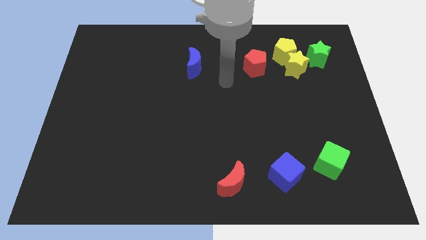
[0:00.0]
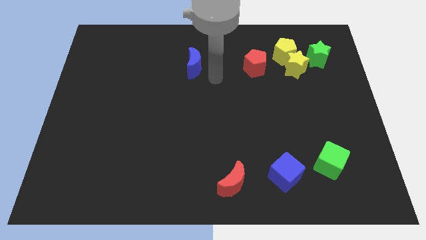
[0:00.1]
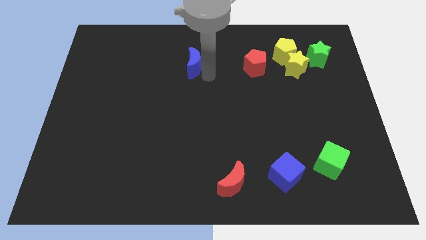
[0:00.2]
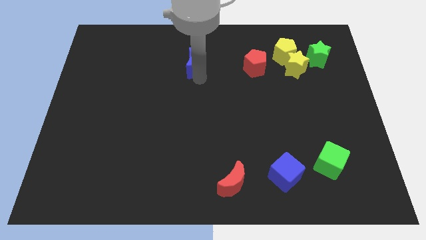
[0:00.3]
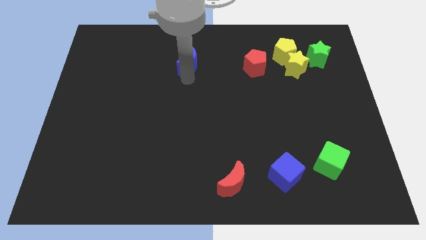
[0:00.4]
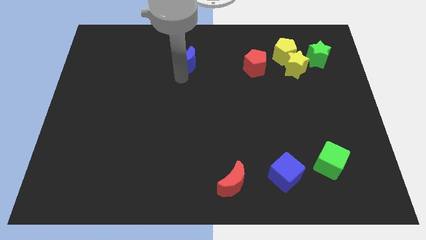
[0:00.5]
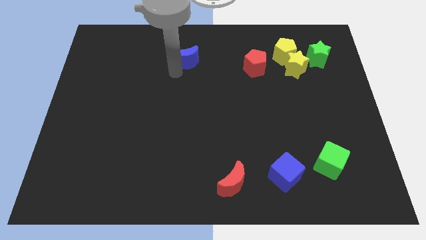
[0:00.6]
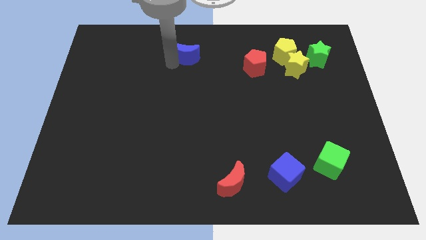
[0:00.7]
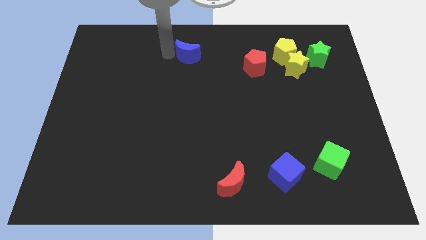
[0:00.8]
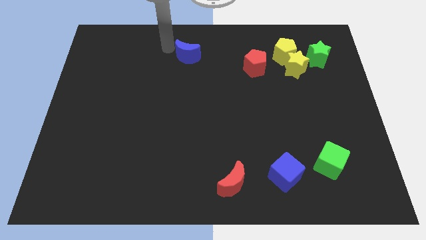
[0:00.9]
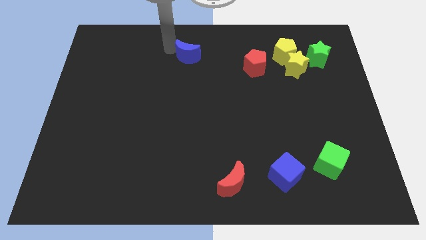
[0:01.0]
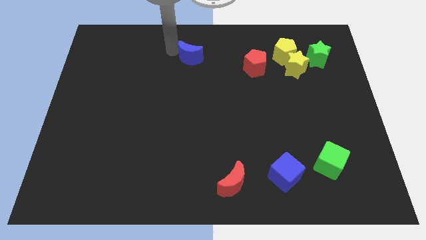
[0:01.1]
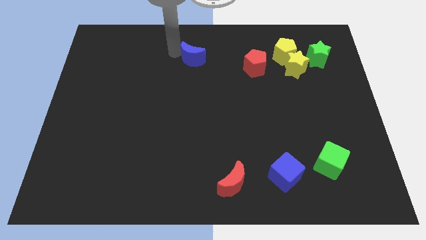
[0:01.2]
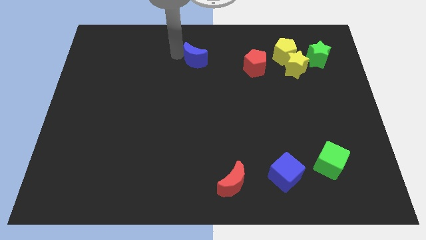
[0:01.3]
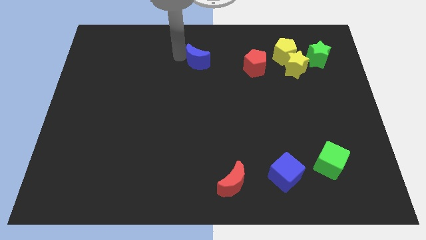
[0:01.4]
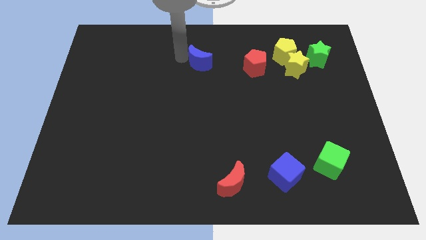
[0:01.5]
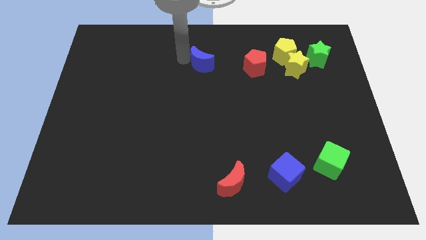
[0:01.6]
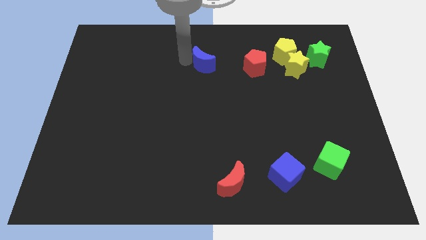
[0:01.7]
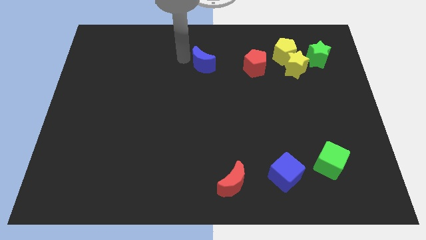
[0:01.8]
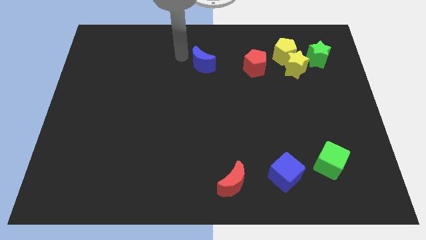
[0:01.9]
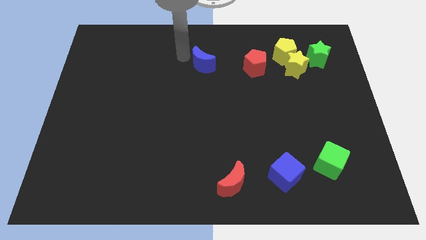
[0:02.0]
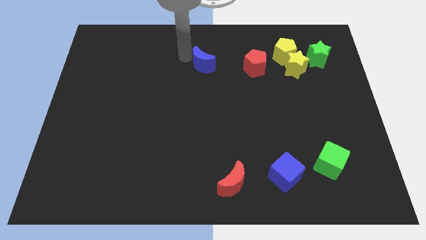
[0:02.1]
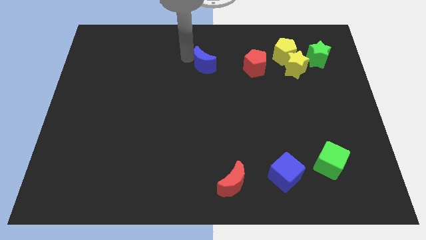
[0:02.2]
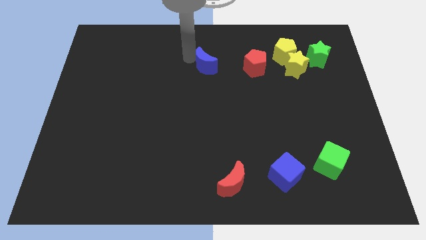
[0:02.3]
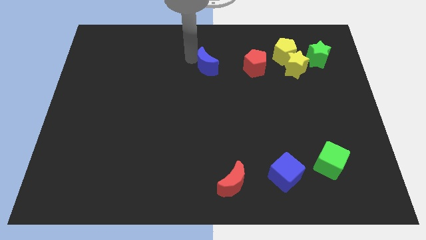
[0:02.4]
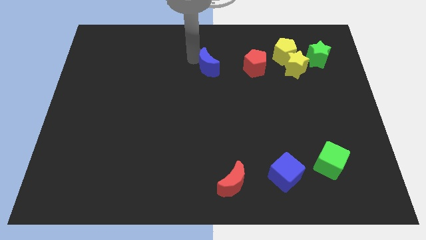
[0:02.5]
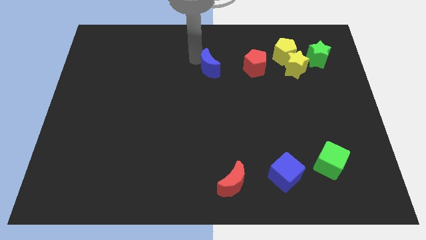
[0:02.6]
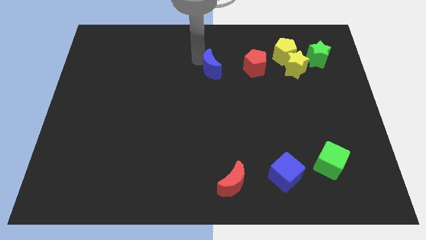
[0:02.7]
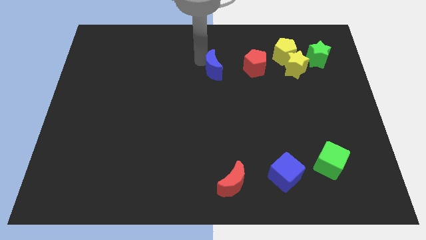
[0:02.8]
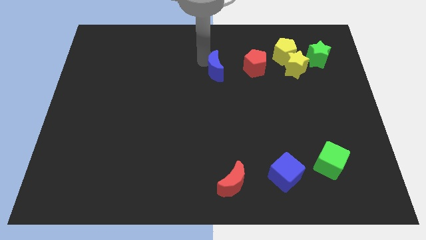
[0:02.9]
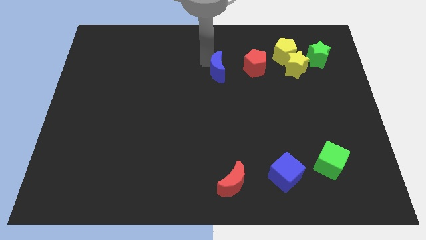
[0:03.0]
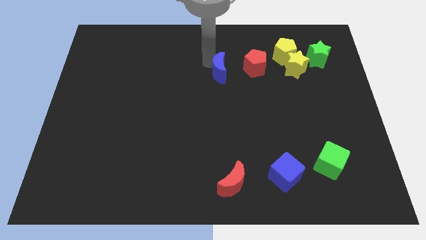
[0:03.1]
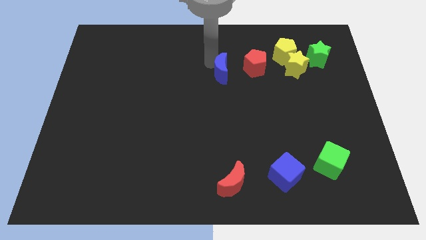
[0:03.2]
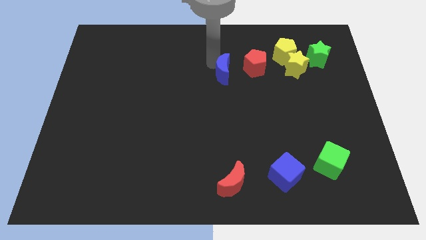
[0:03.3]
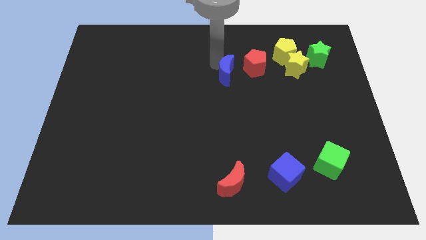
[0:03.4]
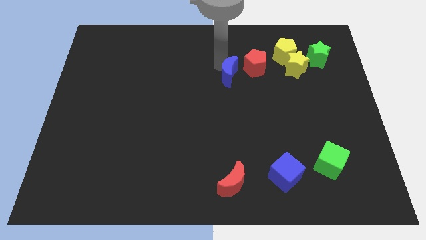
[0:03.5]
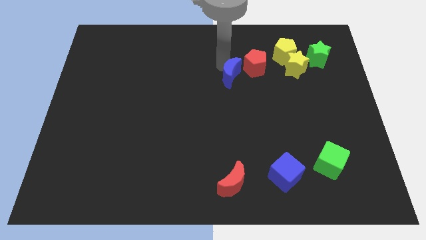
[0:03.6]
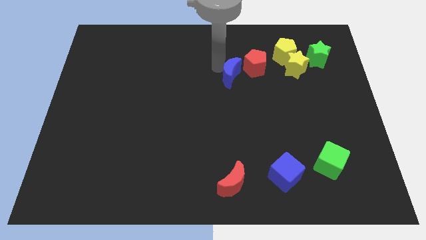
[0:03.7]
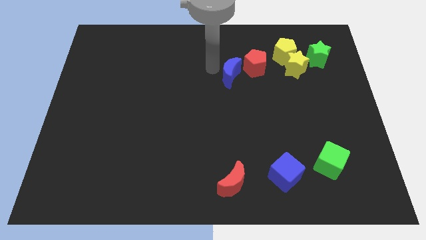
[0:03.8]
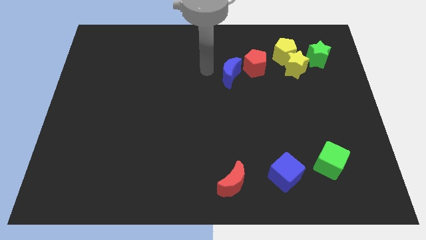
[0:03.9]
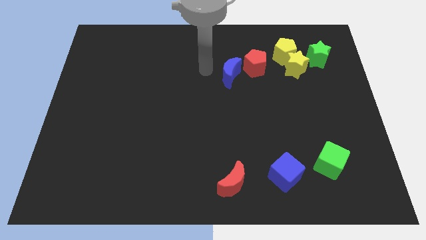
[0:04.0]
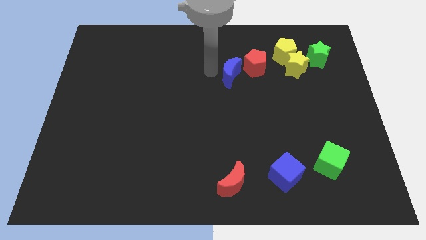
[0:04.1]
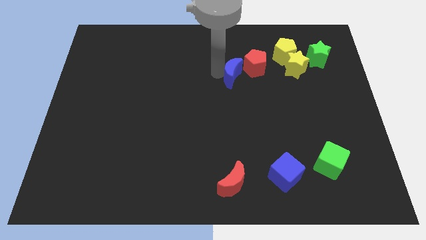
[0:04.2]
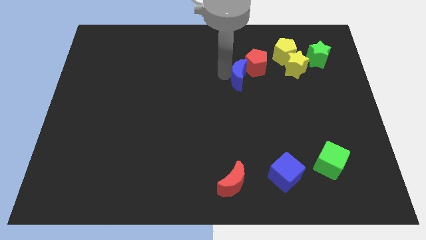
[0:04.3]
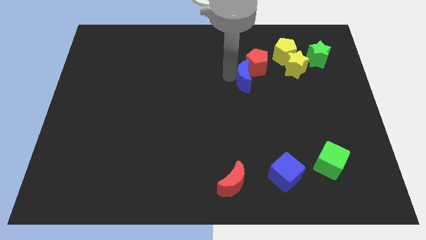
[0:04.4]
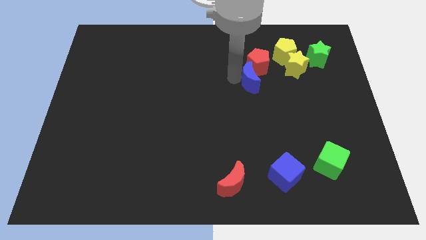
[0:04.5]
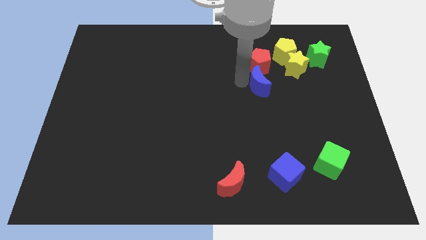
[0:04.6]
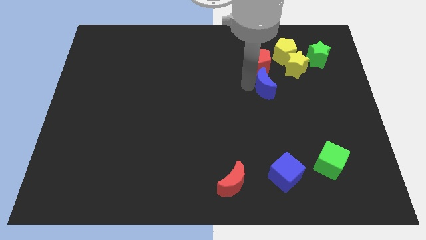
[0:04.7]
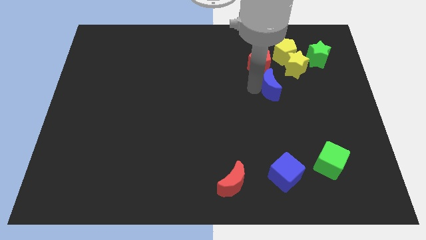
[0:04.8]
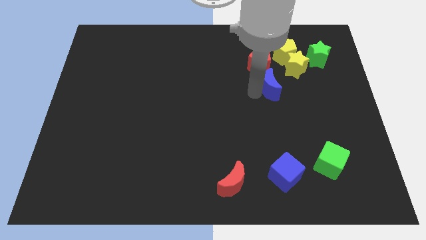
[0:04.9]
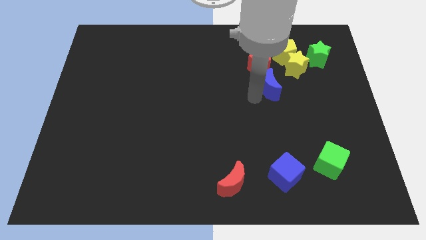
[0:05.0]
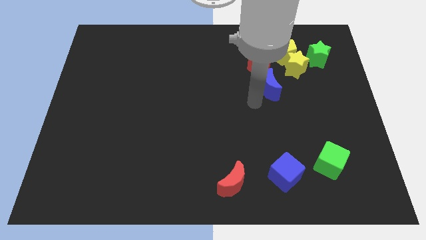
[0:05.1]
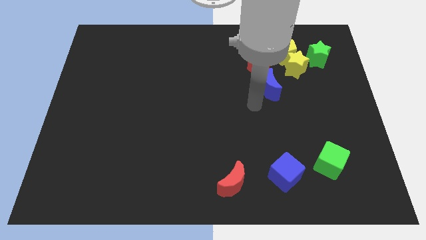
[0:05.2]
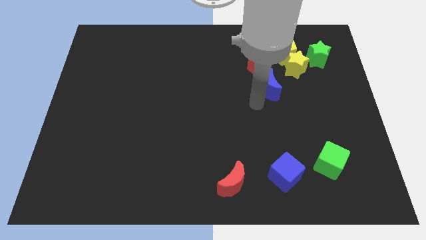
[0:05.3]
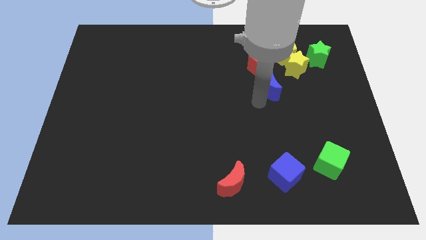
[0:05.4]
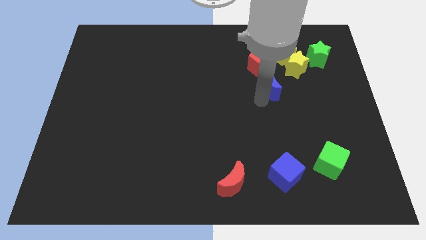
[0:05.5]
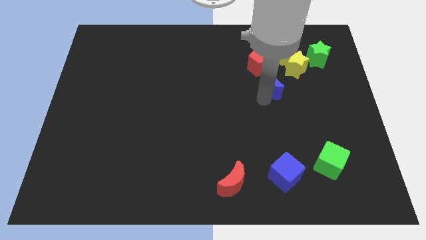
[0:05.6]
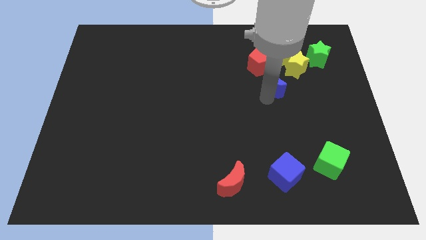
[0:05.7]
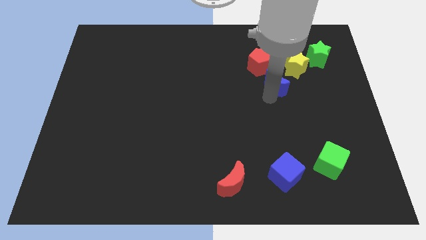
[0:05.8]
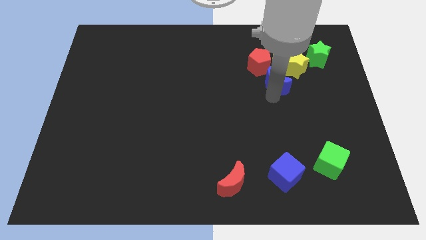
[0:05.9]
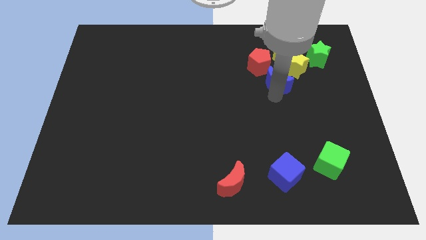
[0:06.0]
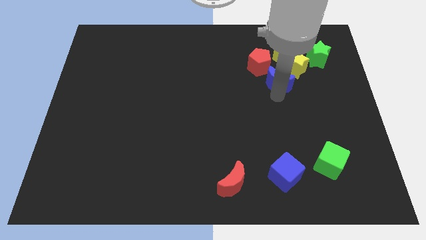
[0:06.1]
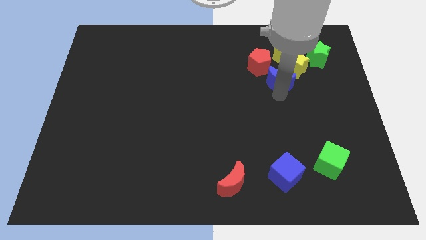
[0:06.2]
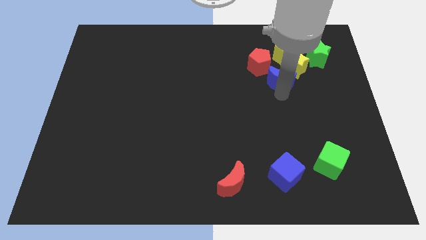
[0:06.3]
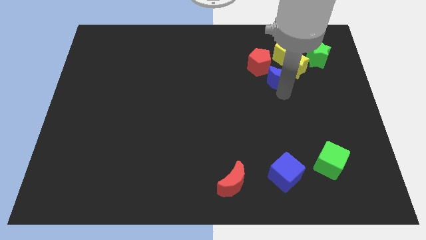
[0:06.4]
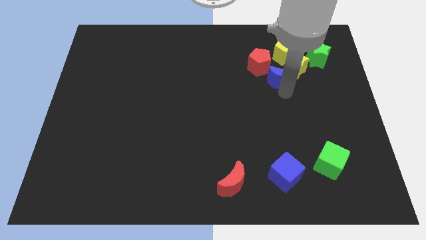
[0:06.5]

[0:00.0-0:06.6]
push the blue moon to the yellow star
